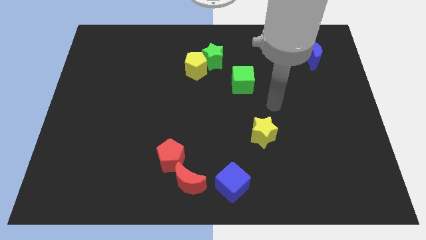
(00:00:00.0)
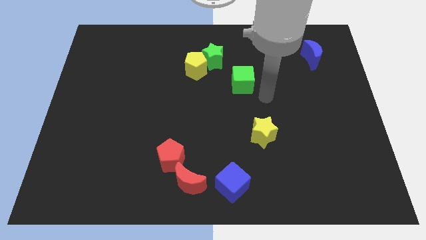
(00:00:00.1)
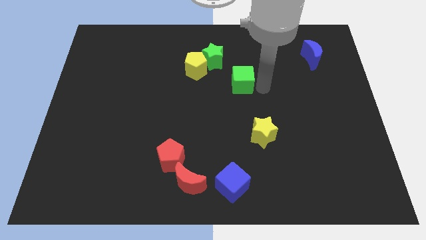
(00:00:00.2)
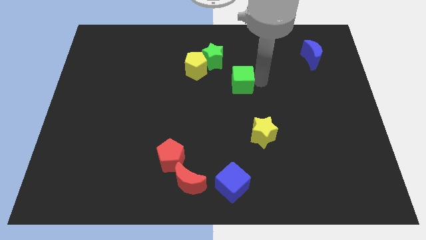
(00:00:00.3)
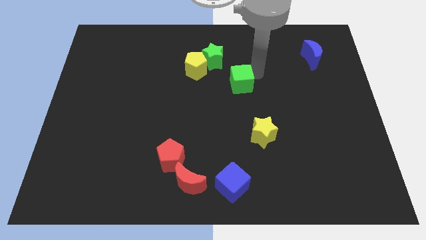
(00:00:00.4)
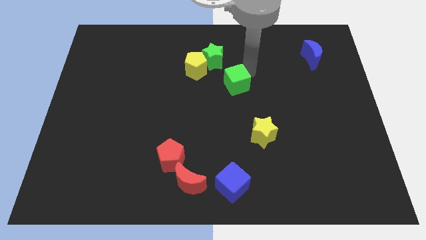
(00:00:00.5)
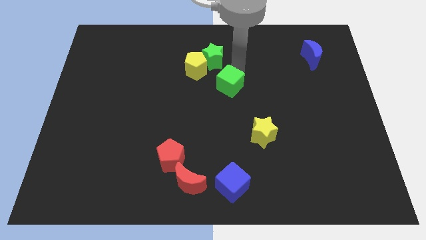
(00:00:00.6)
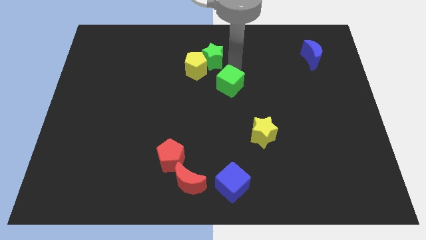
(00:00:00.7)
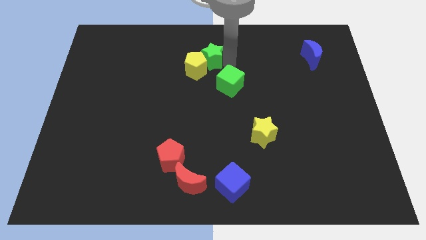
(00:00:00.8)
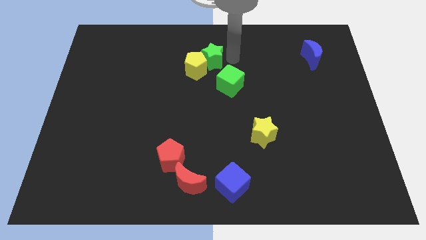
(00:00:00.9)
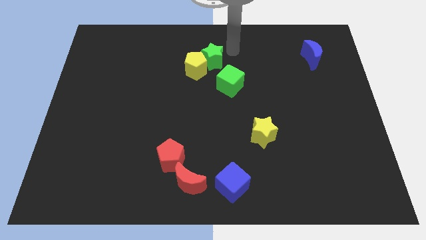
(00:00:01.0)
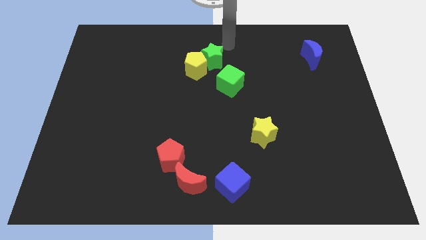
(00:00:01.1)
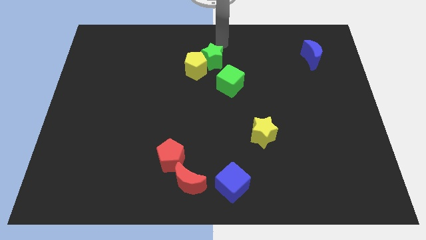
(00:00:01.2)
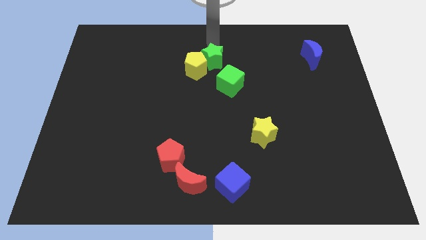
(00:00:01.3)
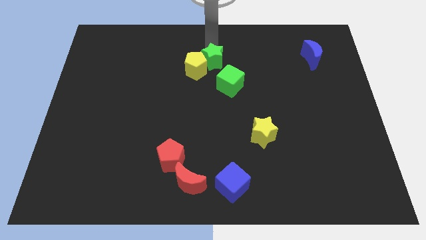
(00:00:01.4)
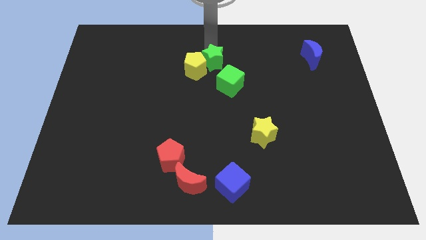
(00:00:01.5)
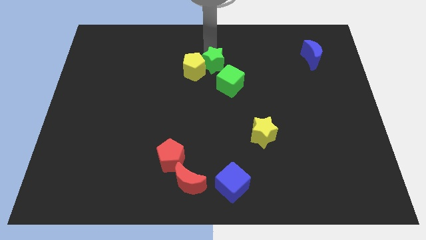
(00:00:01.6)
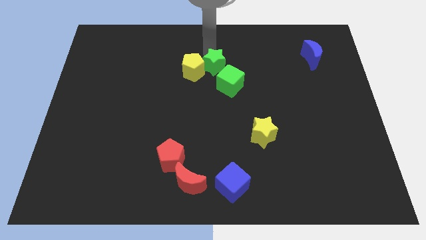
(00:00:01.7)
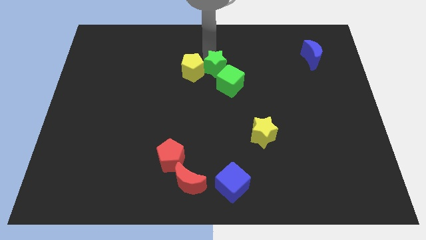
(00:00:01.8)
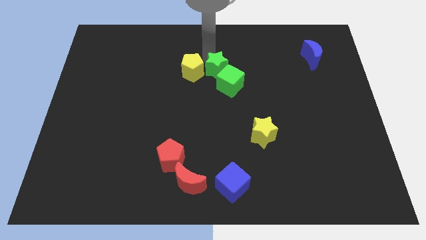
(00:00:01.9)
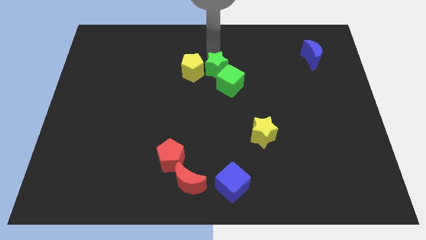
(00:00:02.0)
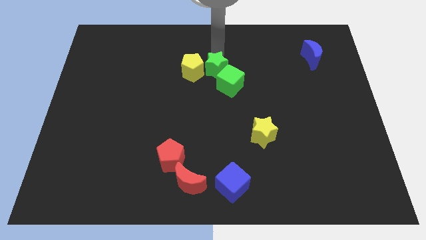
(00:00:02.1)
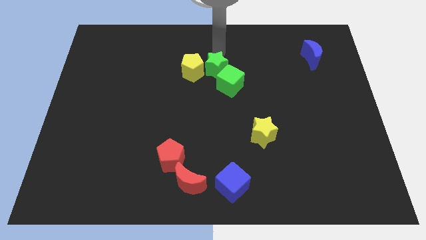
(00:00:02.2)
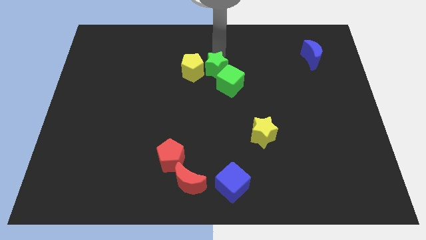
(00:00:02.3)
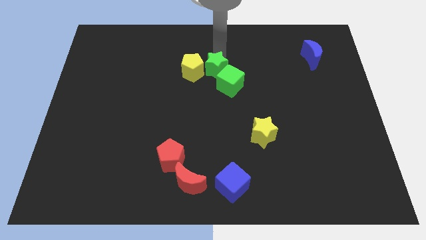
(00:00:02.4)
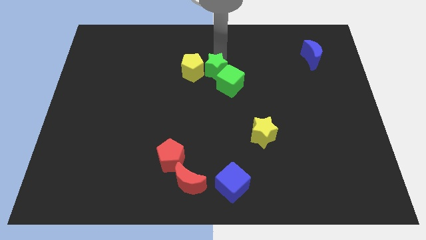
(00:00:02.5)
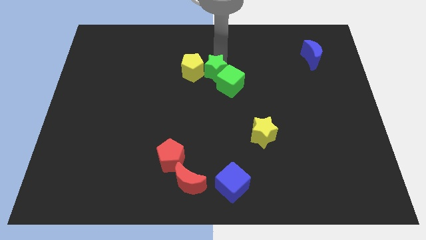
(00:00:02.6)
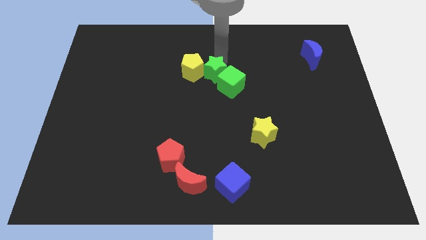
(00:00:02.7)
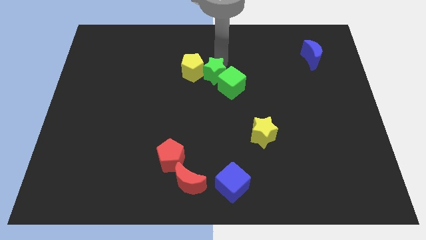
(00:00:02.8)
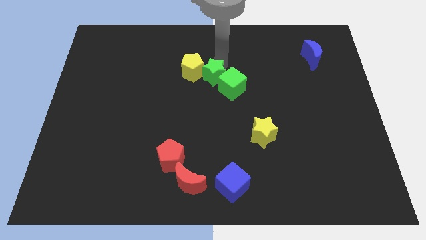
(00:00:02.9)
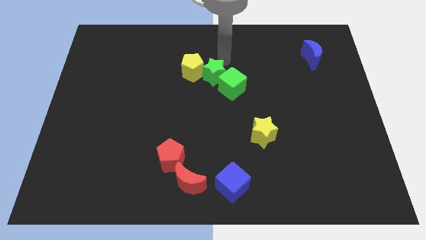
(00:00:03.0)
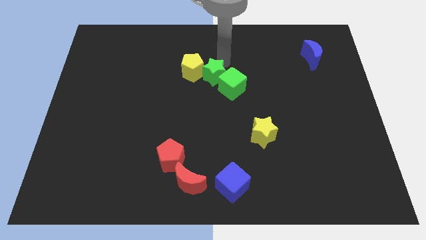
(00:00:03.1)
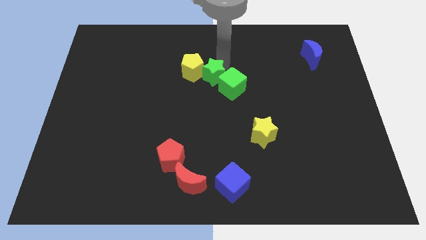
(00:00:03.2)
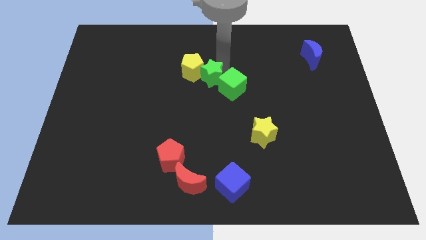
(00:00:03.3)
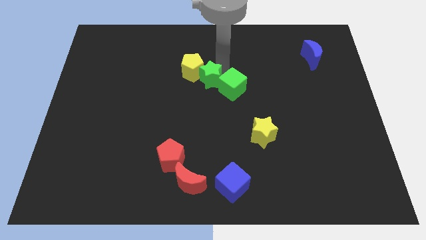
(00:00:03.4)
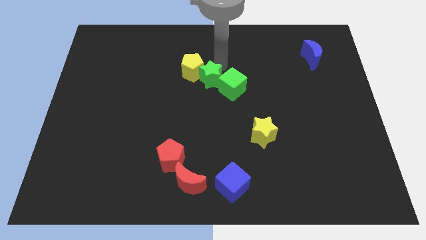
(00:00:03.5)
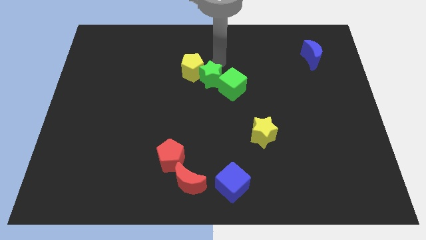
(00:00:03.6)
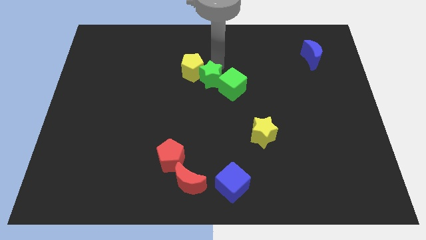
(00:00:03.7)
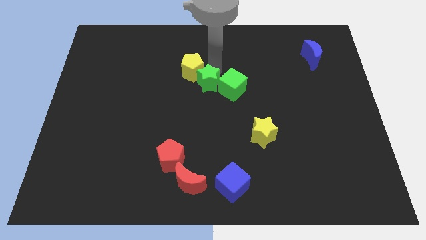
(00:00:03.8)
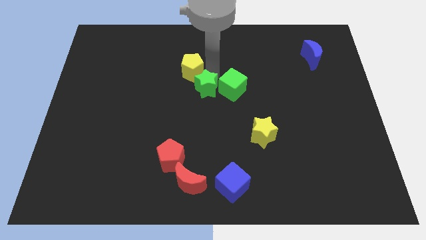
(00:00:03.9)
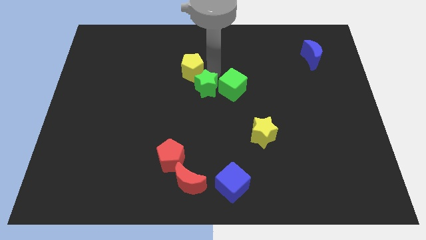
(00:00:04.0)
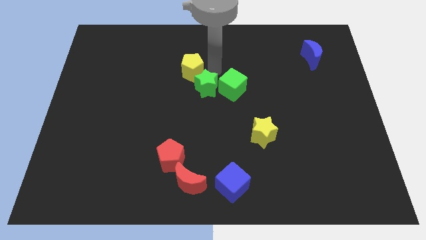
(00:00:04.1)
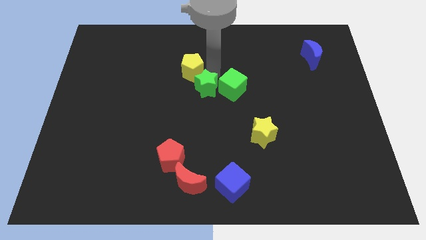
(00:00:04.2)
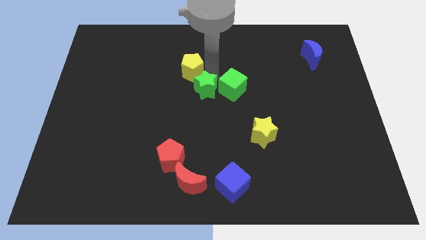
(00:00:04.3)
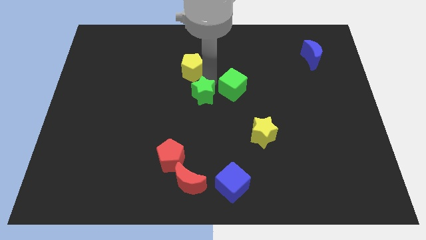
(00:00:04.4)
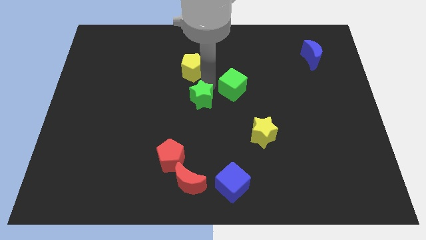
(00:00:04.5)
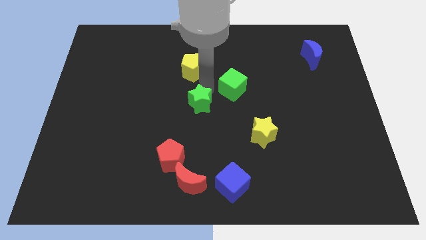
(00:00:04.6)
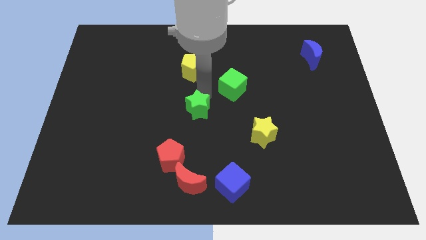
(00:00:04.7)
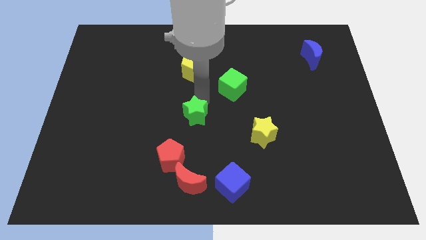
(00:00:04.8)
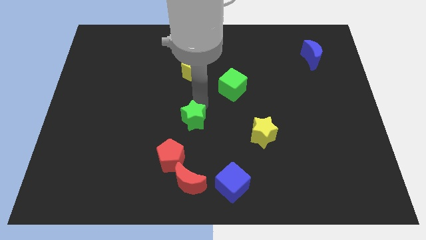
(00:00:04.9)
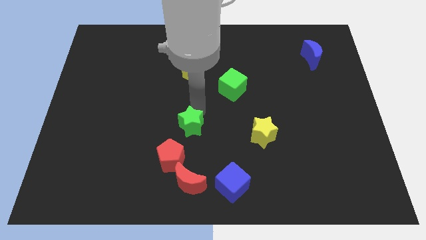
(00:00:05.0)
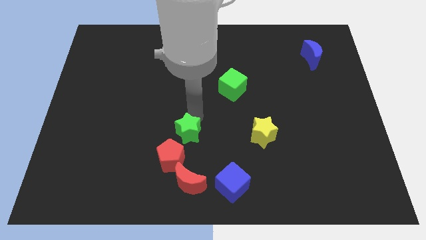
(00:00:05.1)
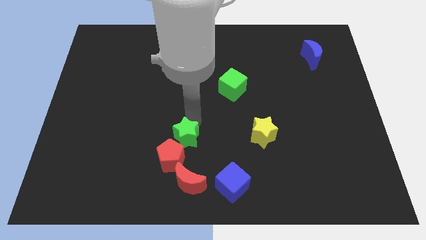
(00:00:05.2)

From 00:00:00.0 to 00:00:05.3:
put the green star next to the red pentagon

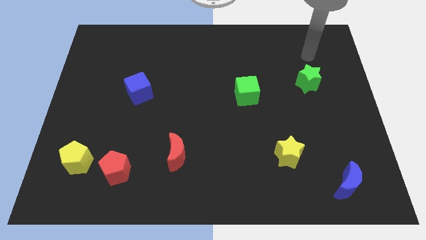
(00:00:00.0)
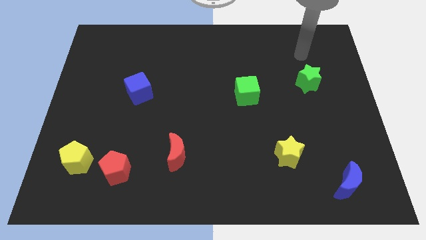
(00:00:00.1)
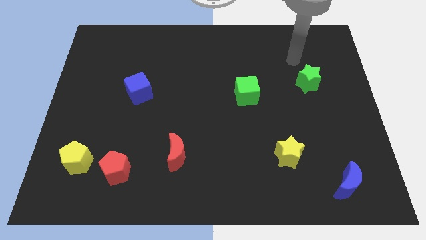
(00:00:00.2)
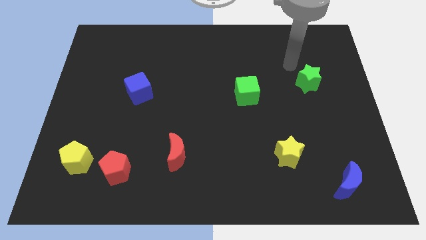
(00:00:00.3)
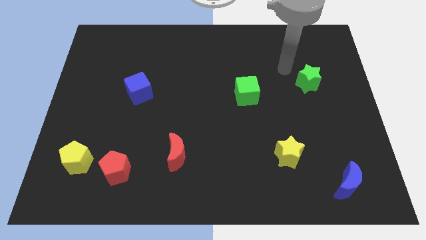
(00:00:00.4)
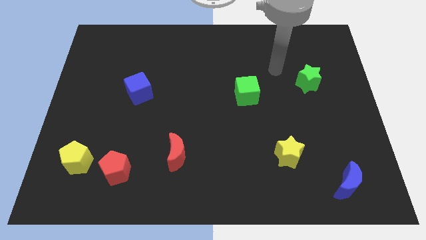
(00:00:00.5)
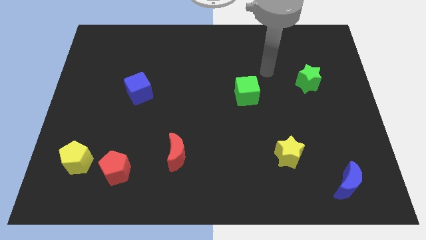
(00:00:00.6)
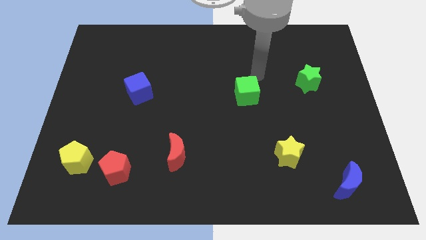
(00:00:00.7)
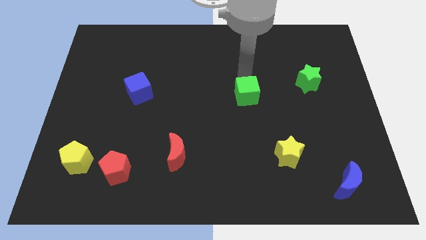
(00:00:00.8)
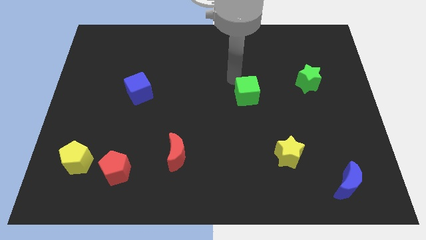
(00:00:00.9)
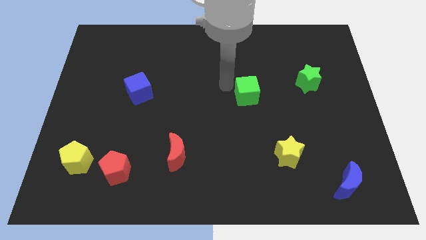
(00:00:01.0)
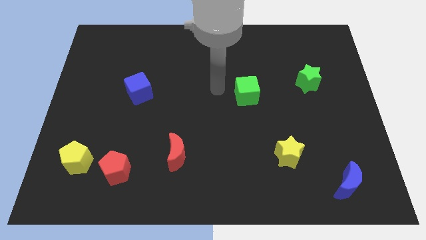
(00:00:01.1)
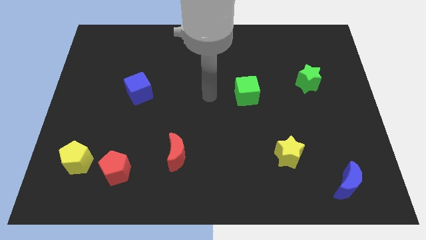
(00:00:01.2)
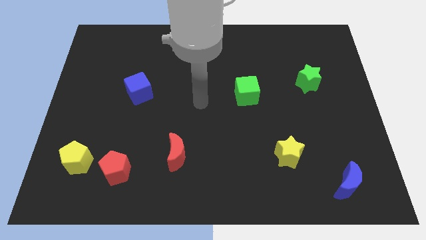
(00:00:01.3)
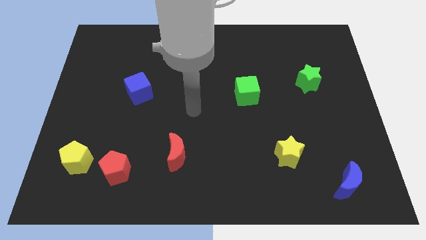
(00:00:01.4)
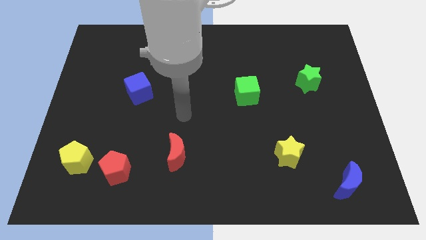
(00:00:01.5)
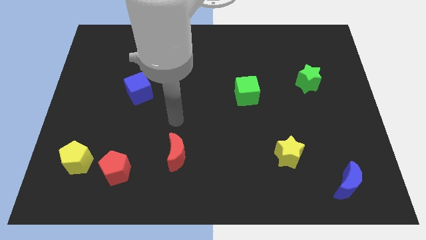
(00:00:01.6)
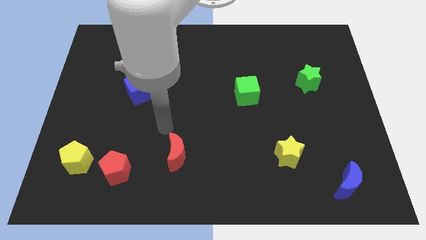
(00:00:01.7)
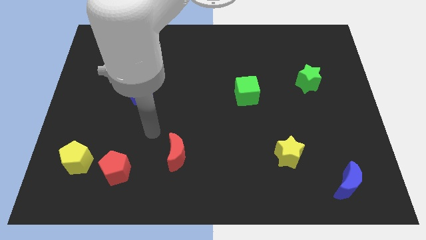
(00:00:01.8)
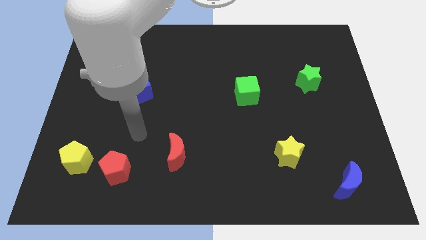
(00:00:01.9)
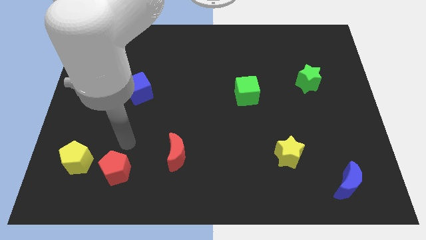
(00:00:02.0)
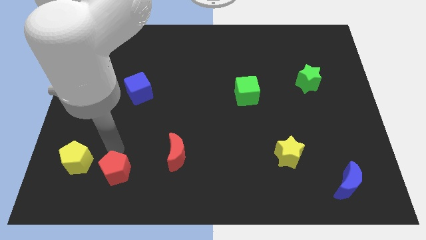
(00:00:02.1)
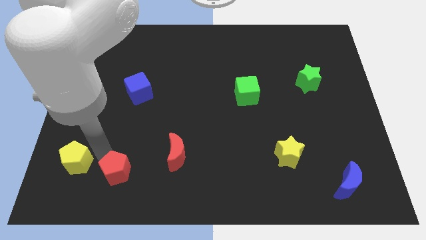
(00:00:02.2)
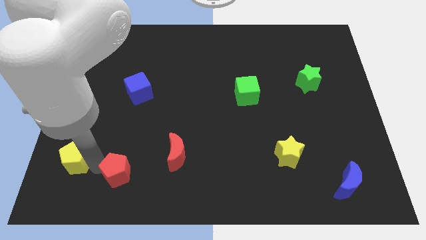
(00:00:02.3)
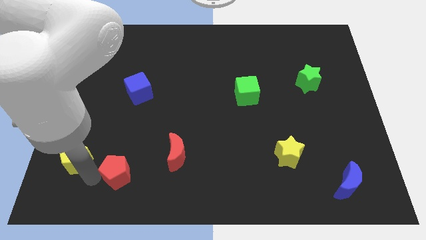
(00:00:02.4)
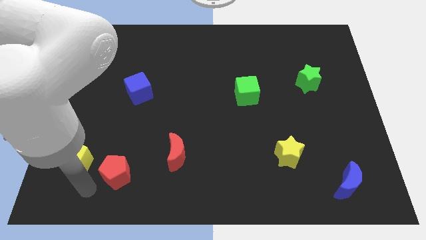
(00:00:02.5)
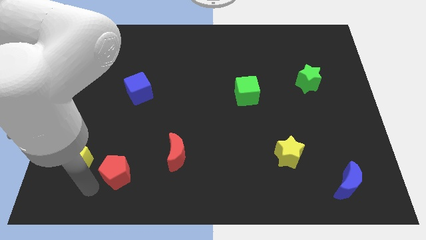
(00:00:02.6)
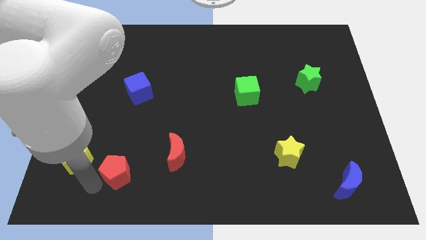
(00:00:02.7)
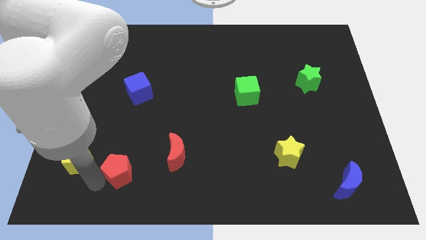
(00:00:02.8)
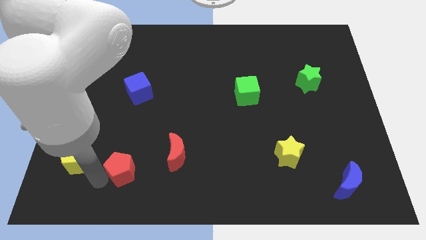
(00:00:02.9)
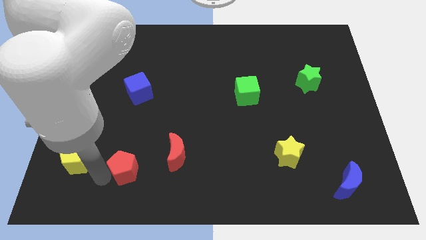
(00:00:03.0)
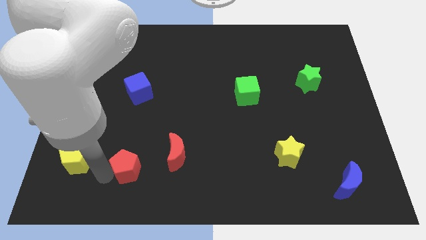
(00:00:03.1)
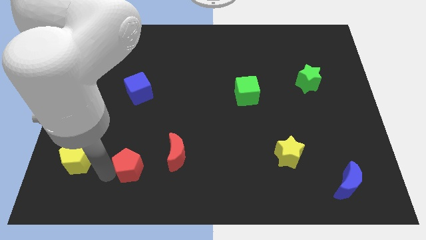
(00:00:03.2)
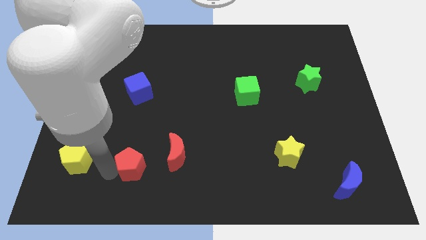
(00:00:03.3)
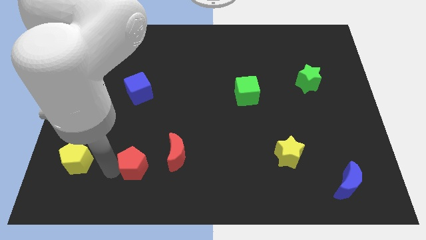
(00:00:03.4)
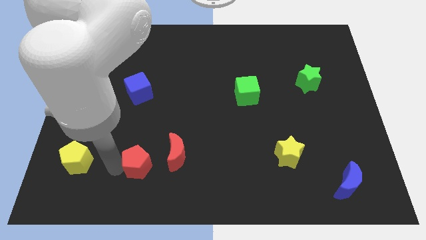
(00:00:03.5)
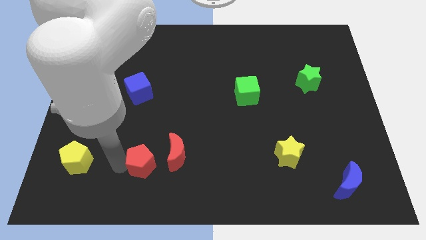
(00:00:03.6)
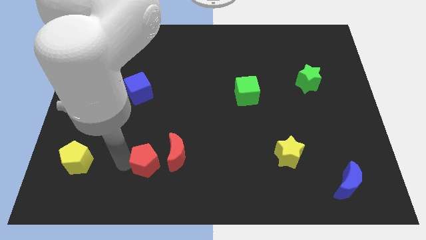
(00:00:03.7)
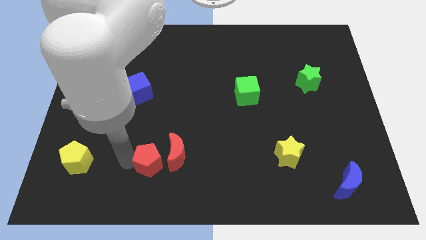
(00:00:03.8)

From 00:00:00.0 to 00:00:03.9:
slide the red pentagon next to the red moon
